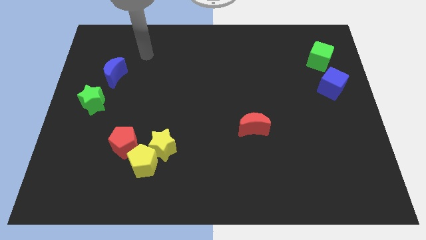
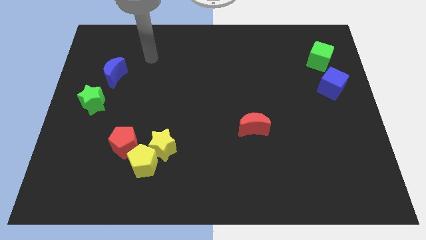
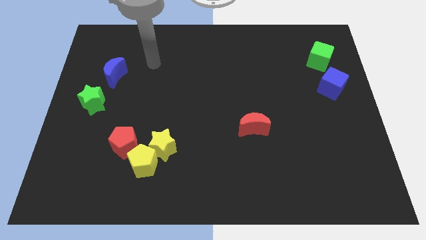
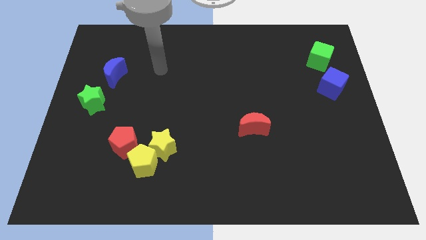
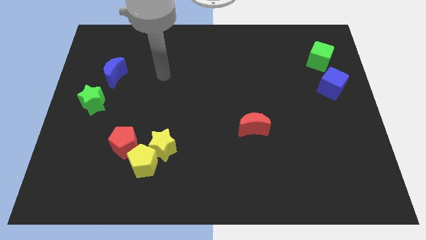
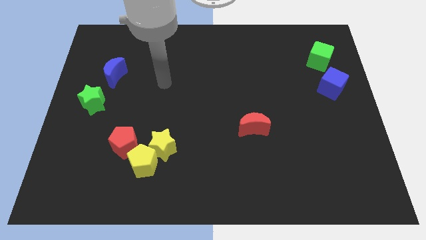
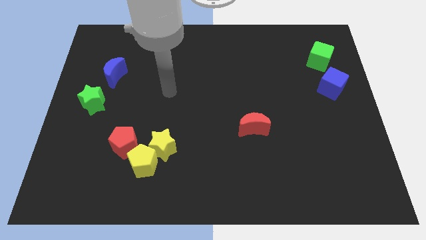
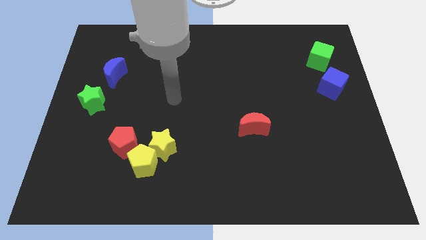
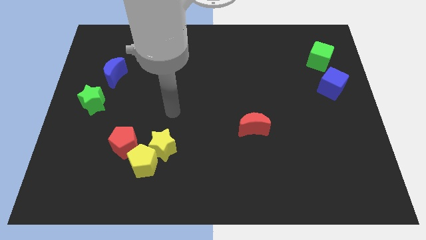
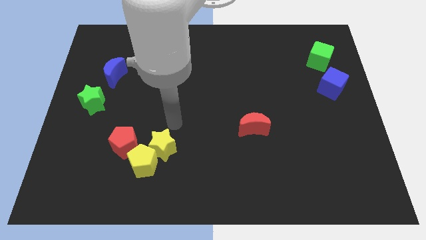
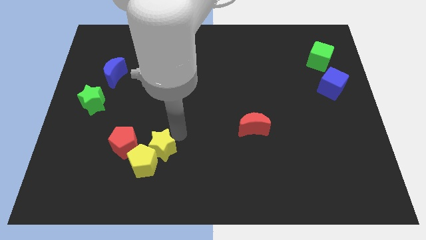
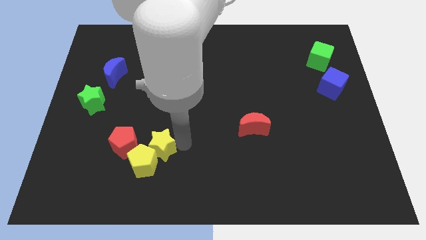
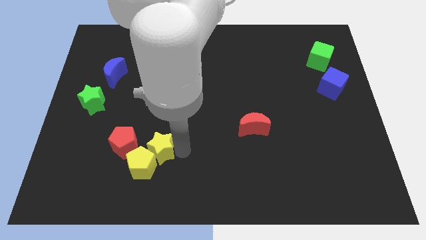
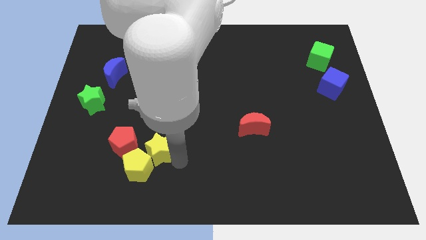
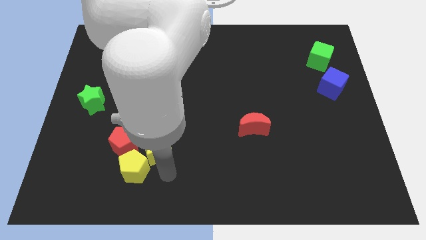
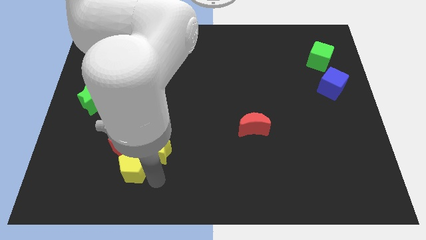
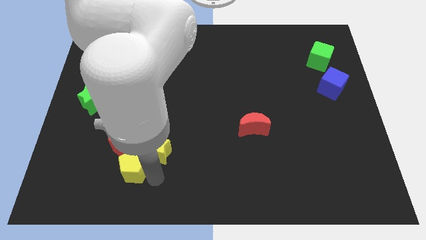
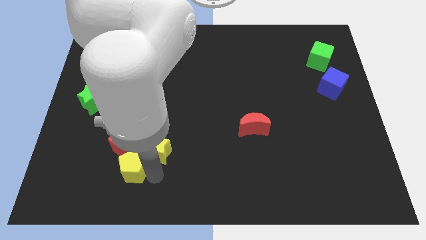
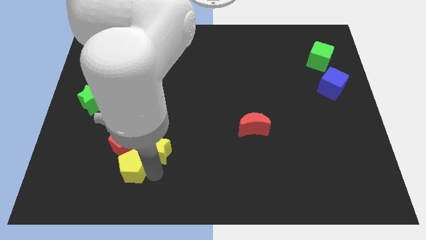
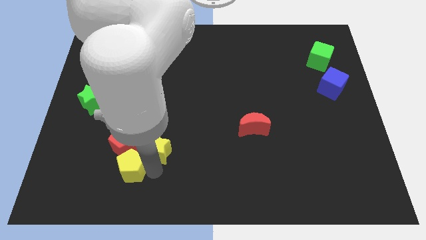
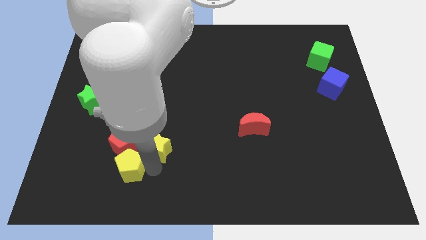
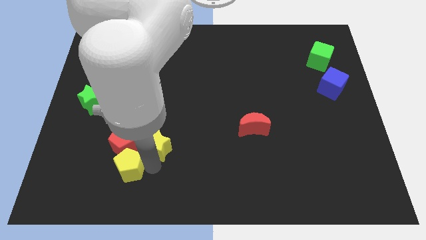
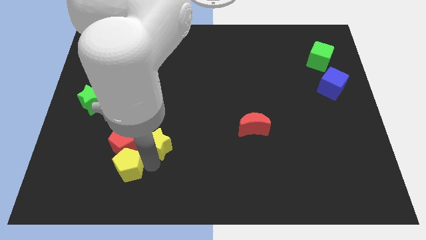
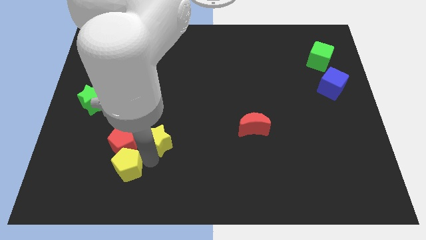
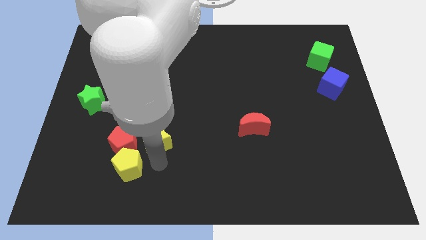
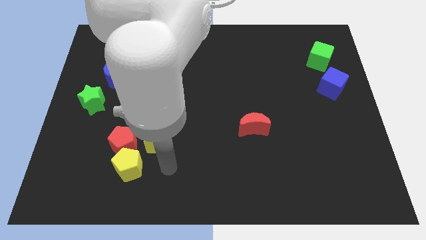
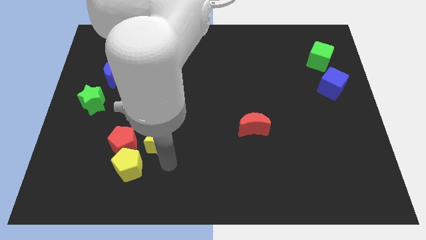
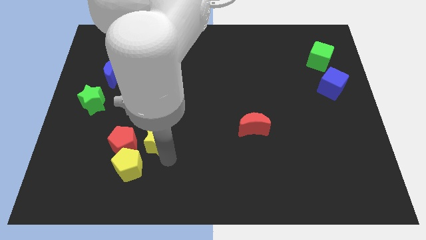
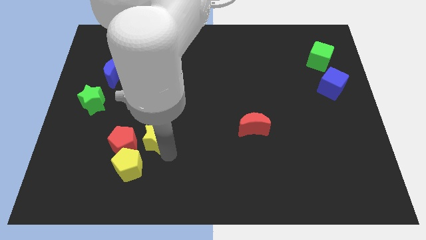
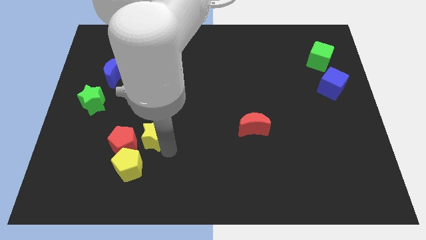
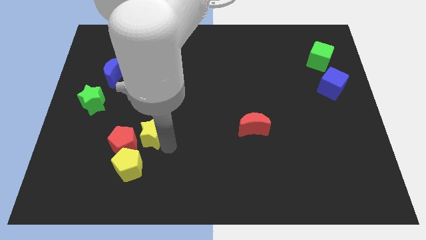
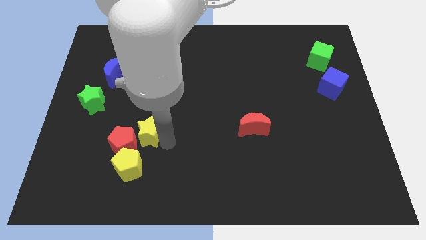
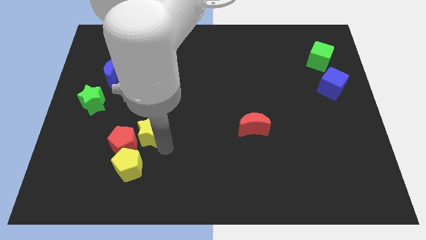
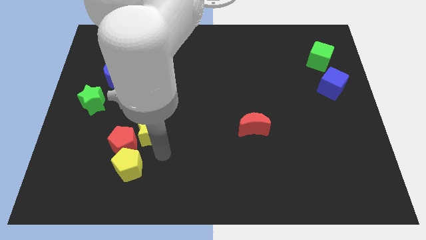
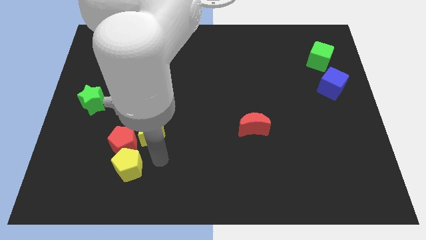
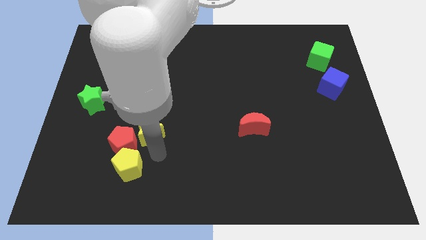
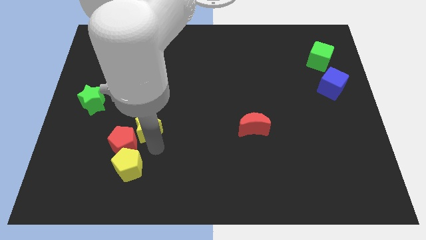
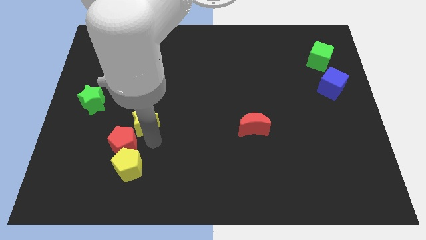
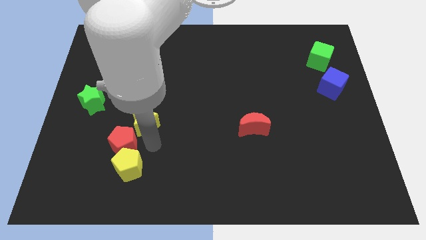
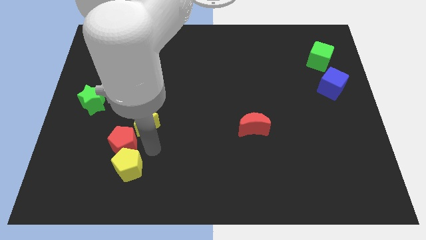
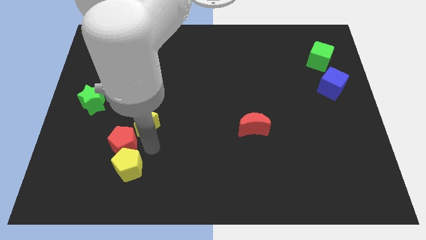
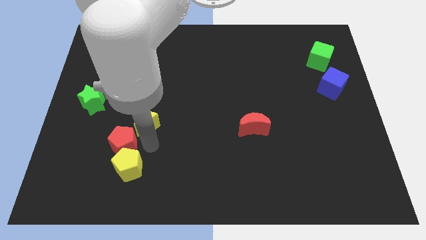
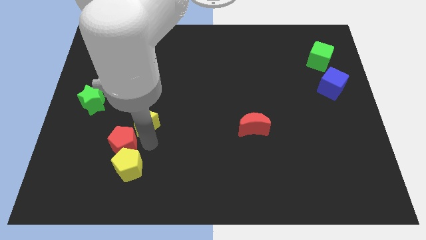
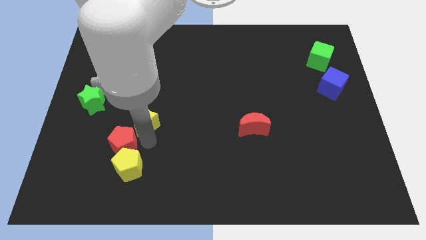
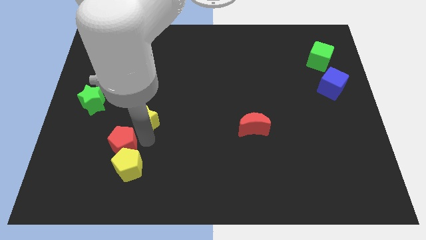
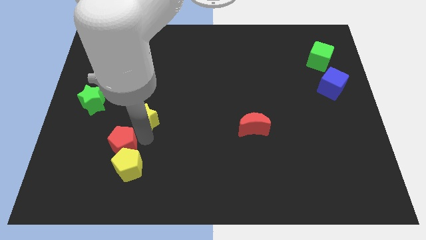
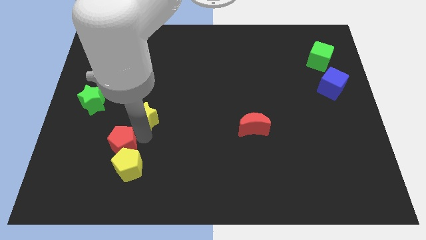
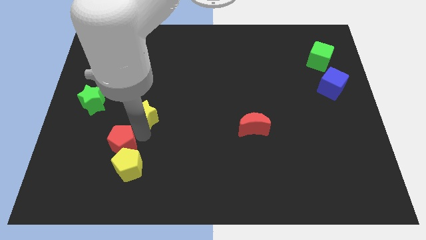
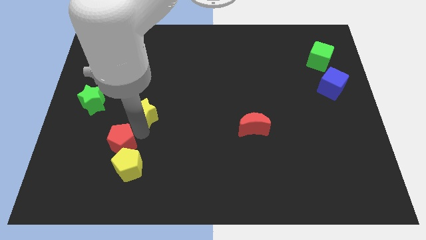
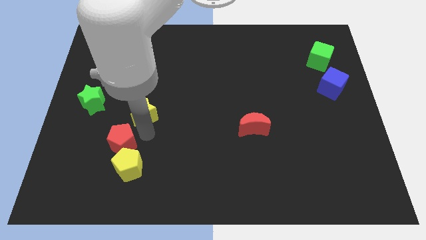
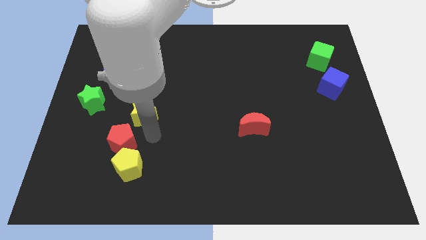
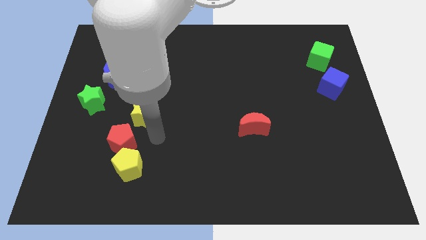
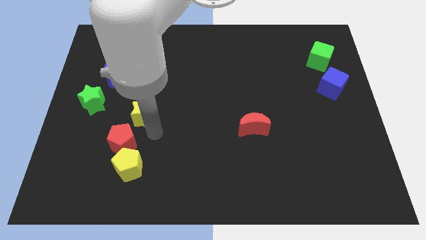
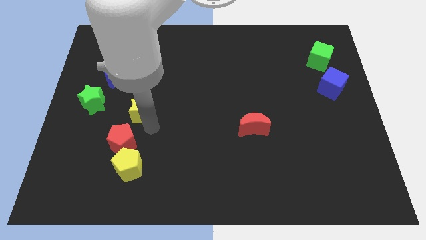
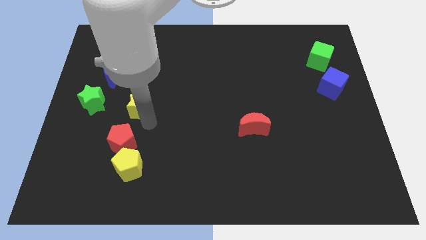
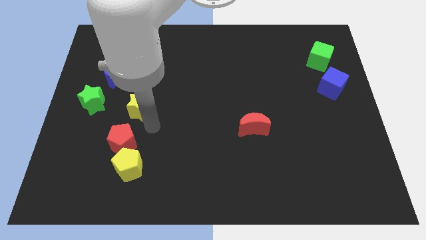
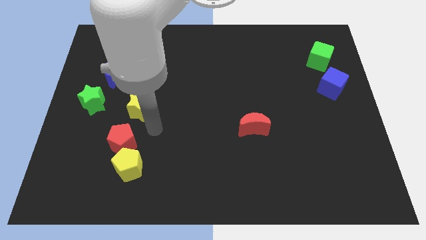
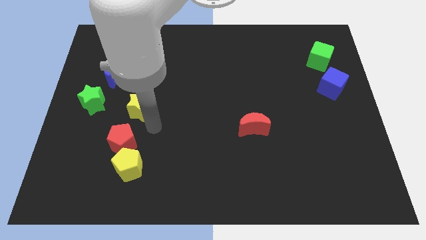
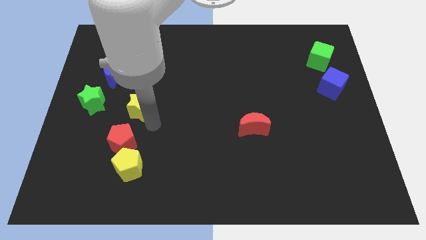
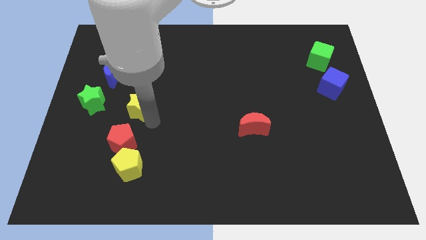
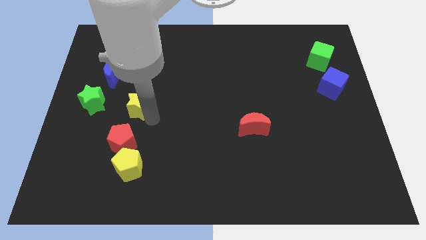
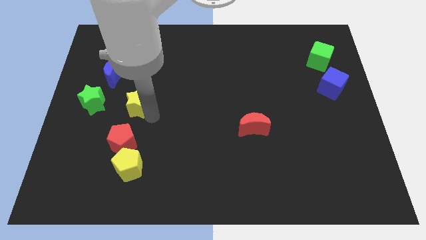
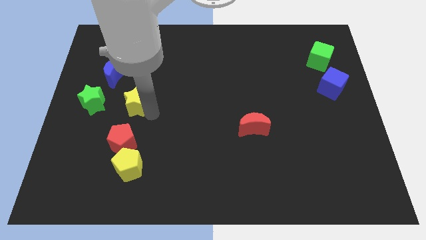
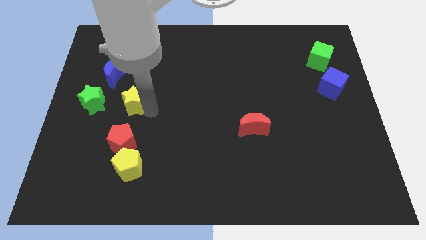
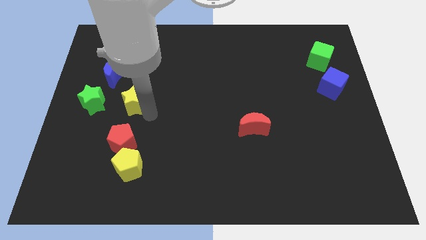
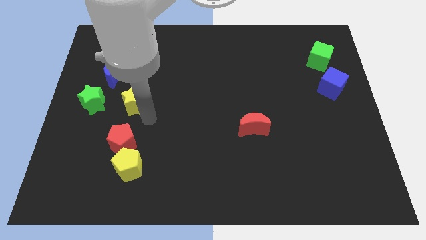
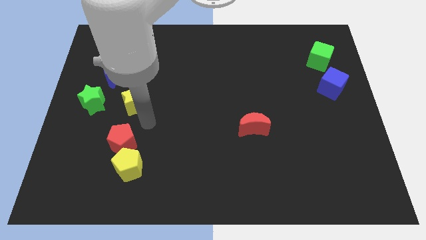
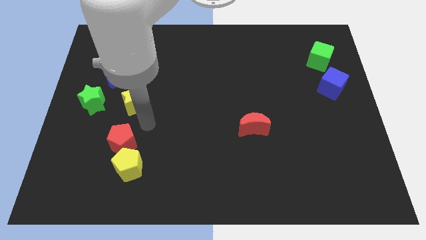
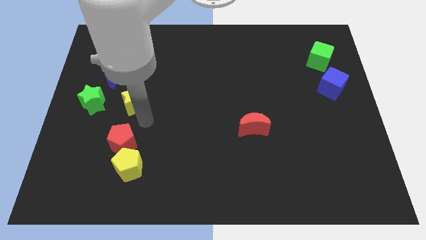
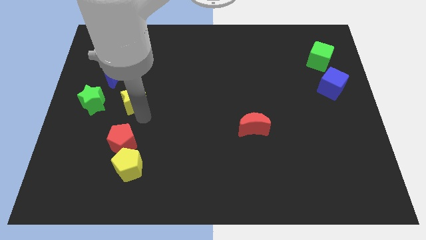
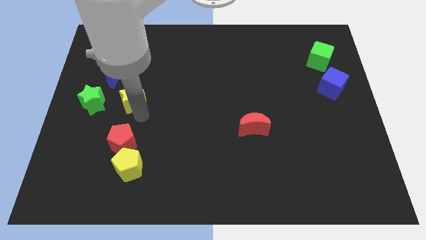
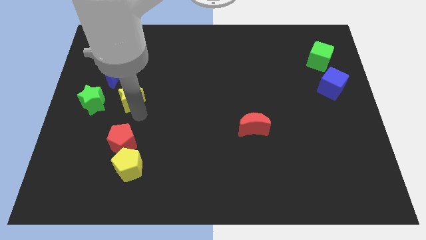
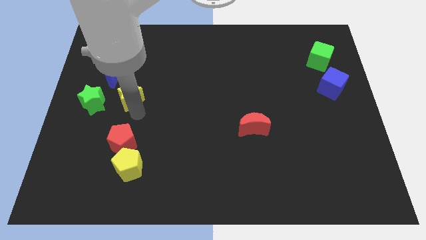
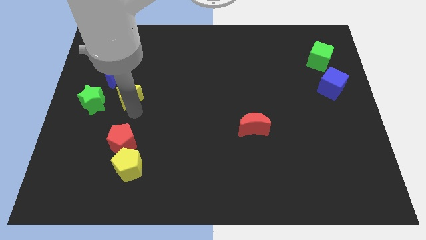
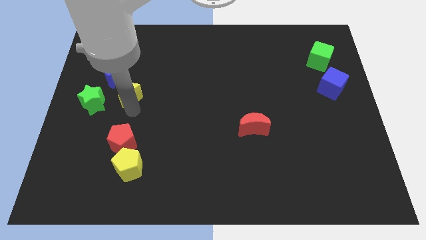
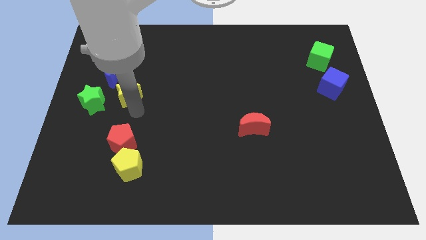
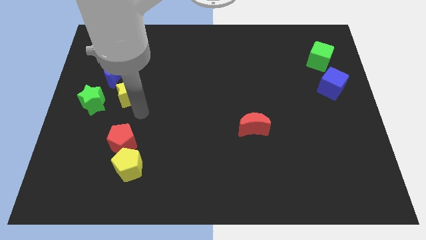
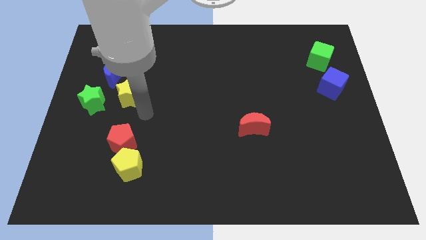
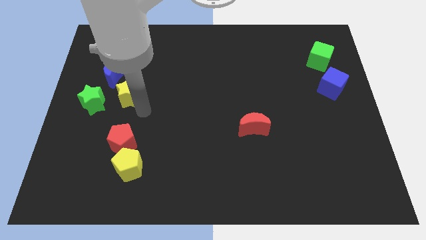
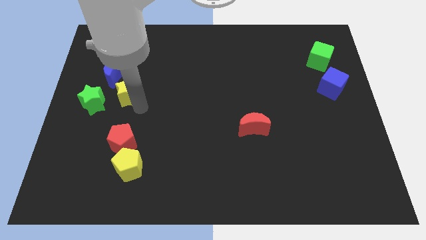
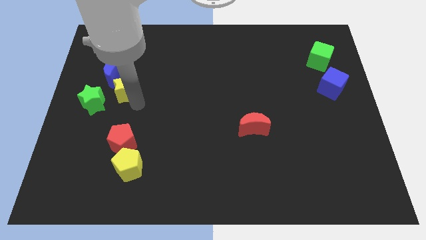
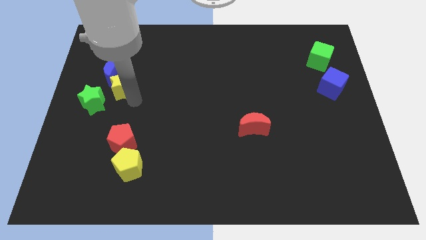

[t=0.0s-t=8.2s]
slide the yellow star to the blue moon
